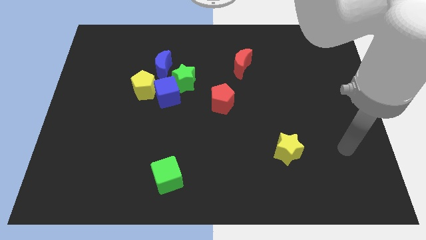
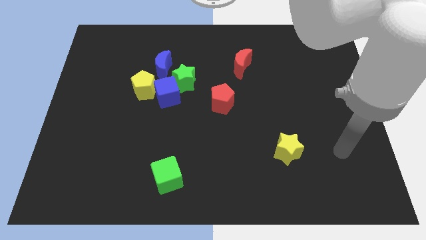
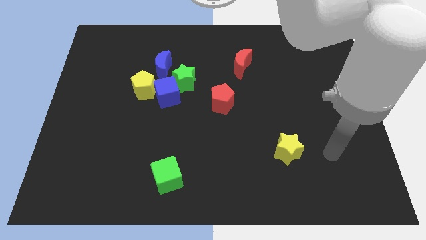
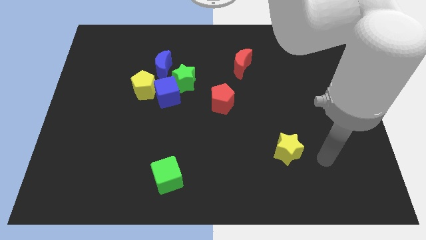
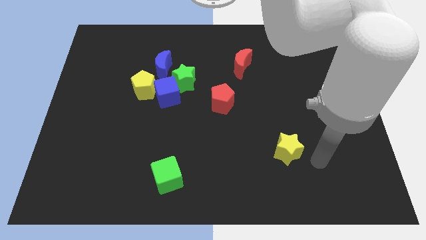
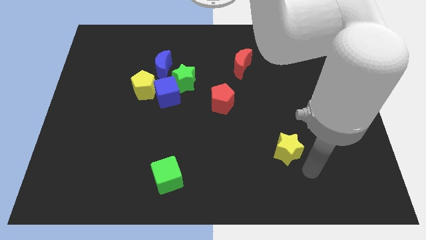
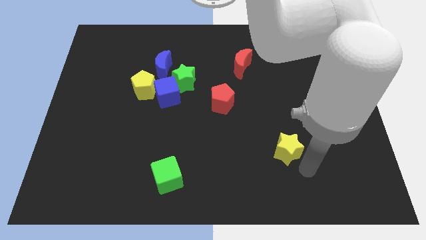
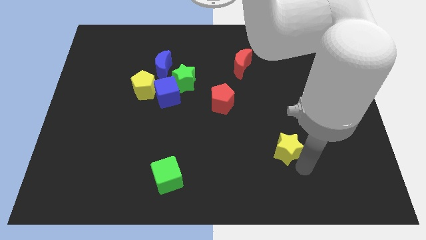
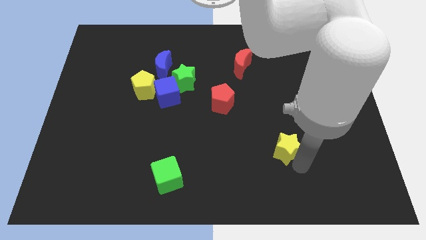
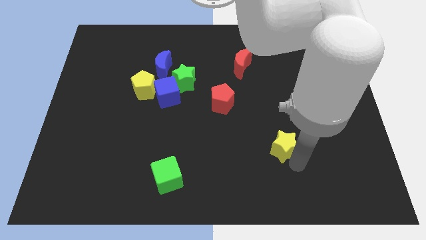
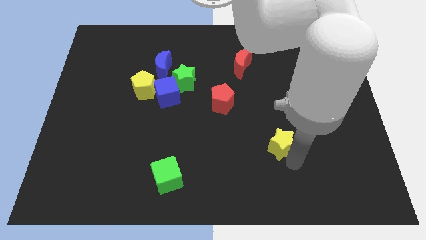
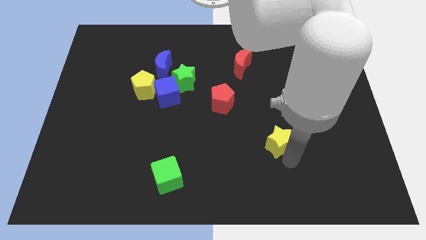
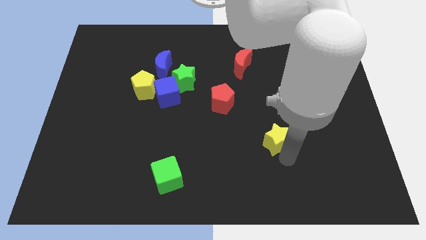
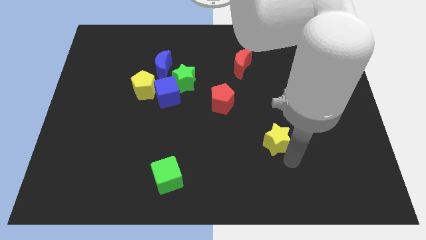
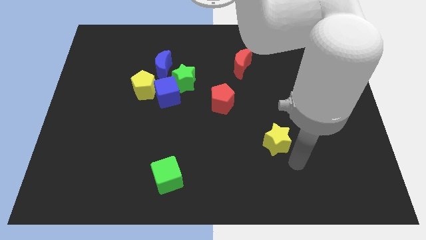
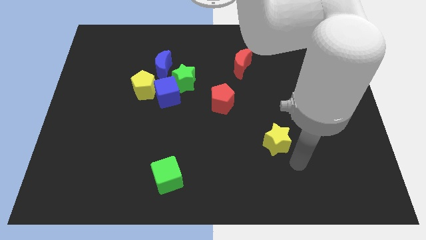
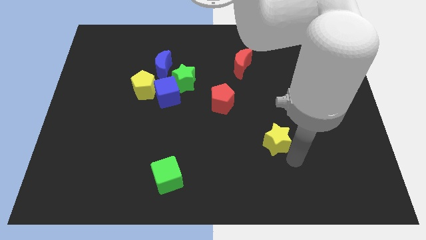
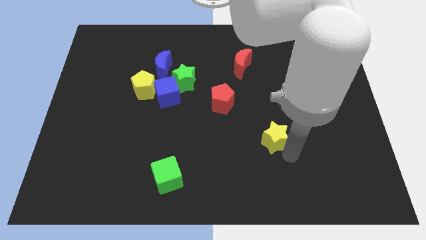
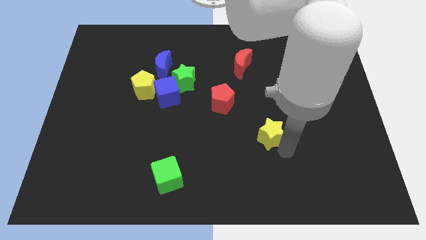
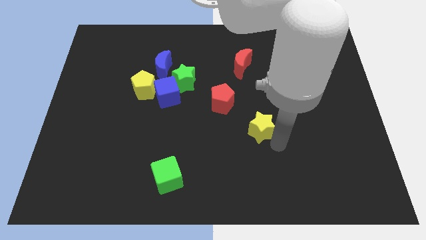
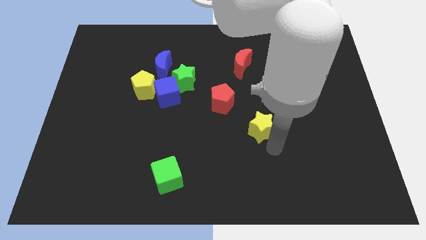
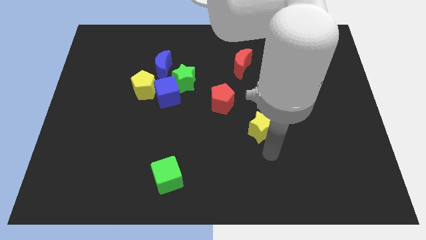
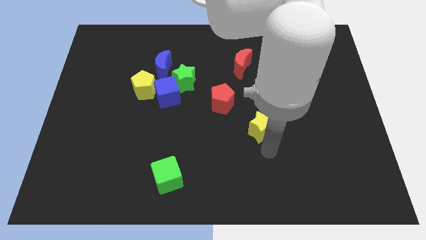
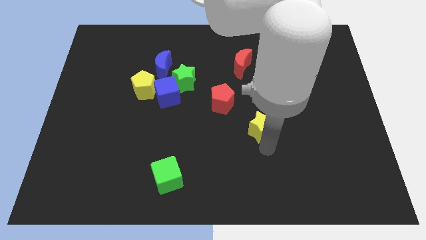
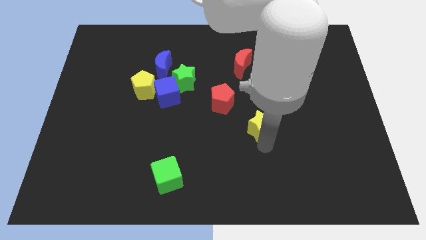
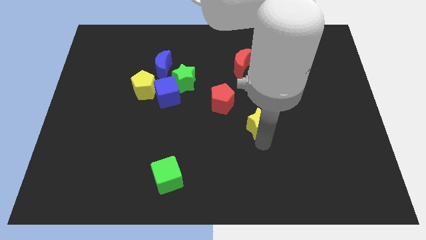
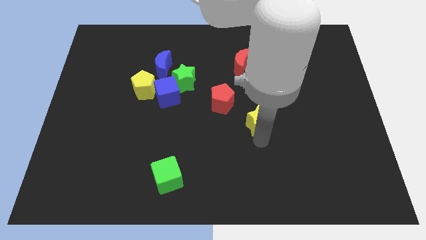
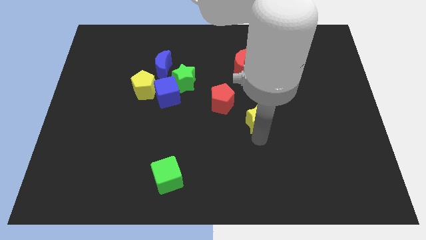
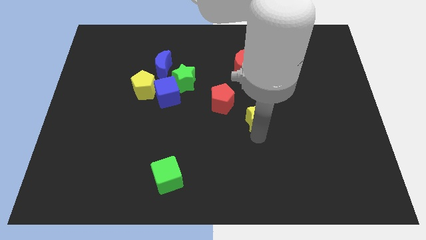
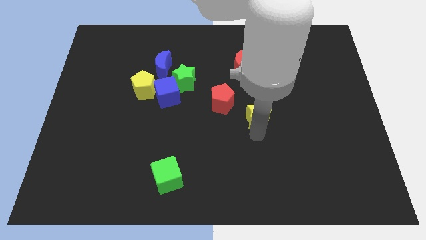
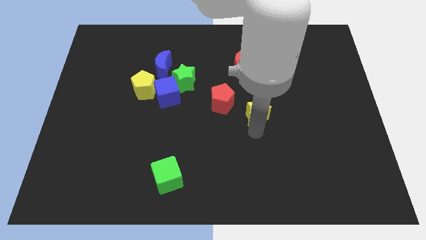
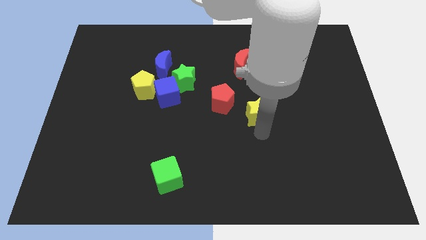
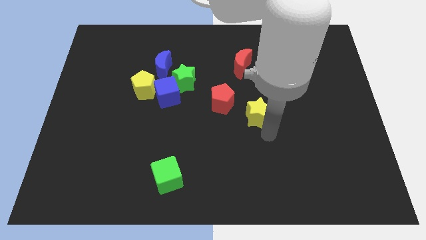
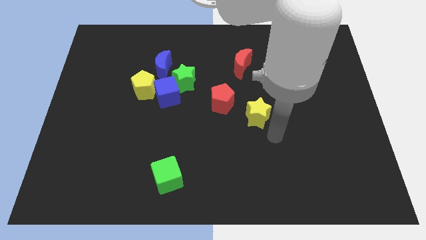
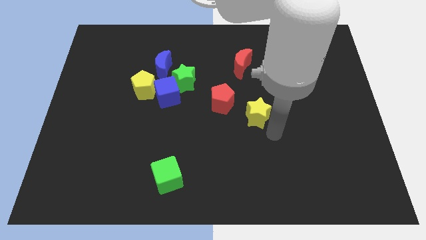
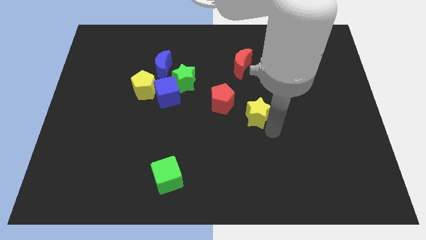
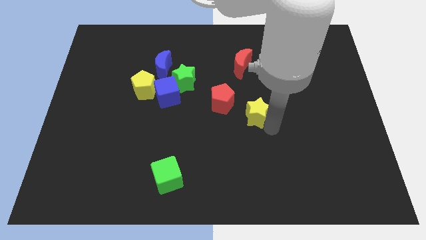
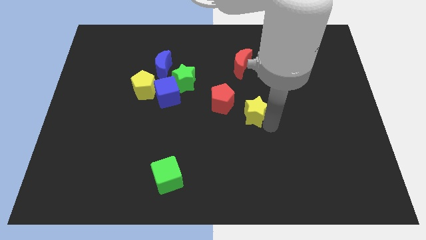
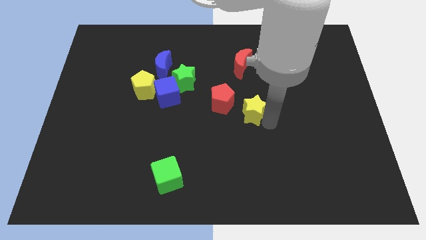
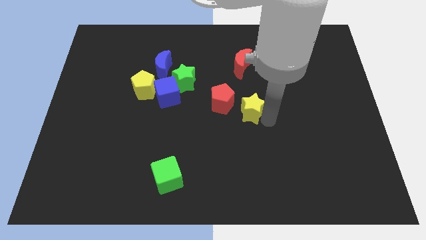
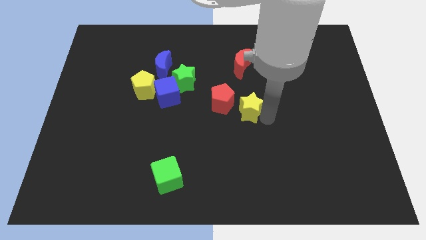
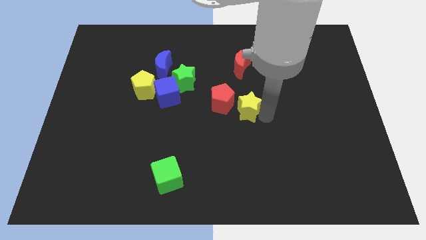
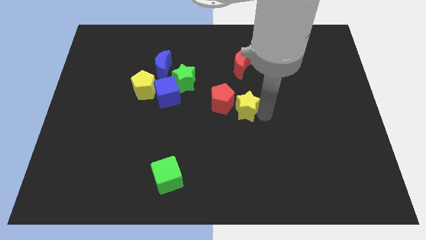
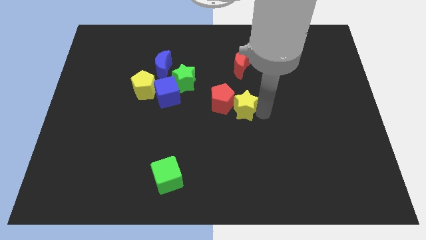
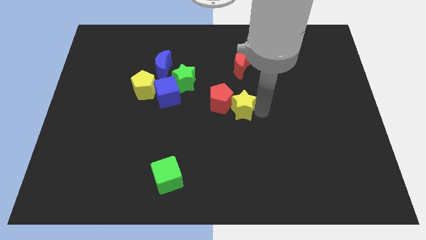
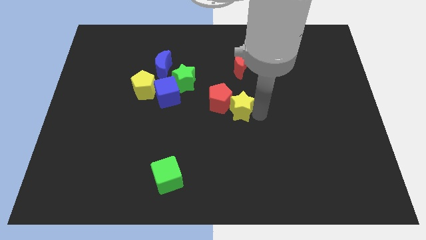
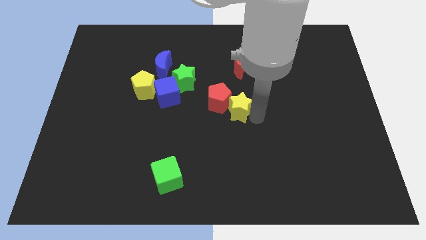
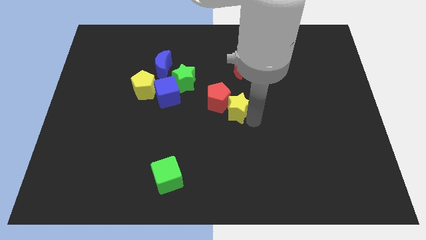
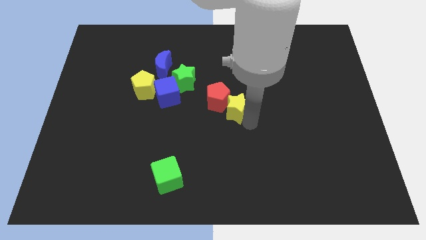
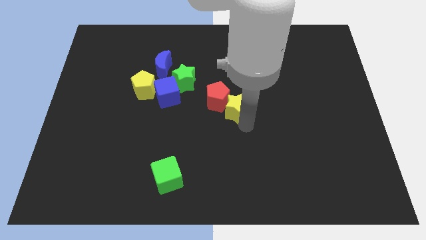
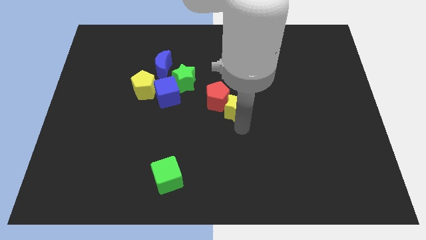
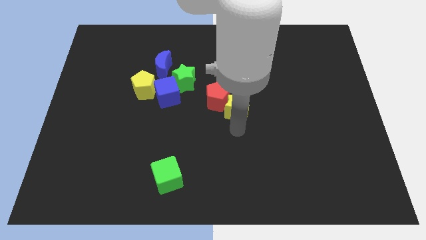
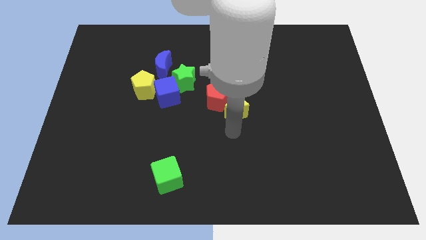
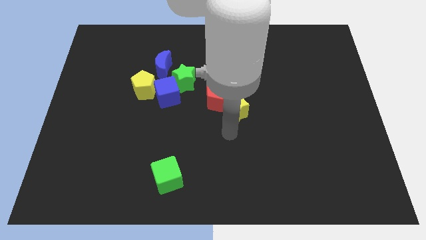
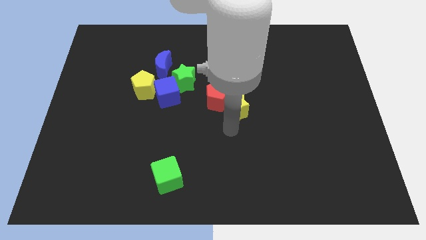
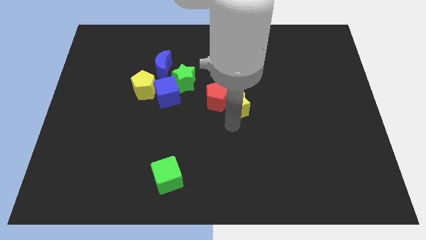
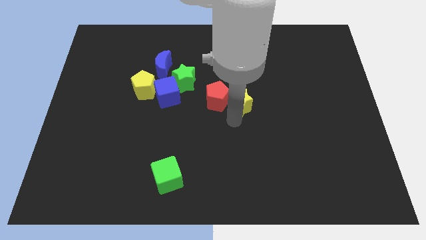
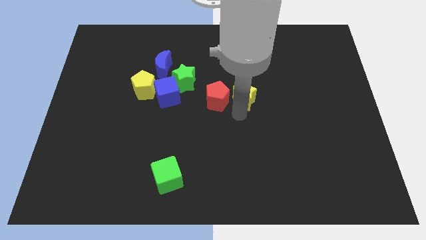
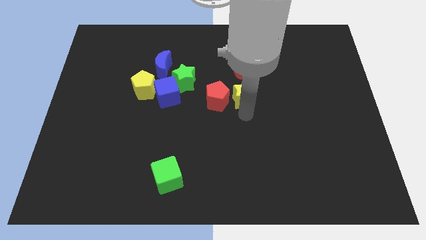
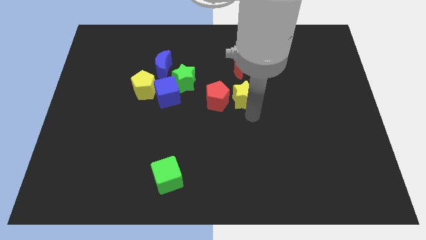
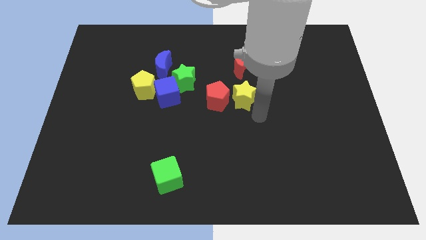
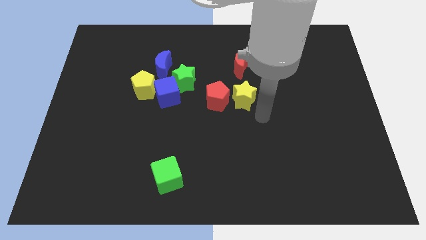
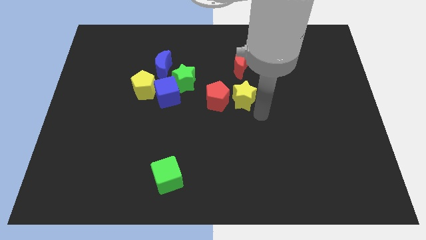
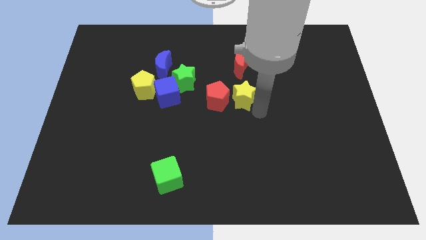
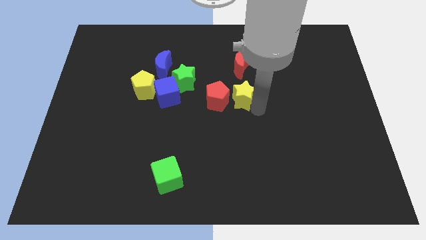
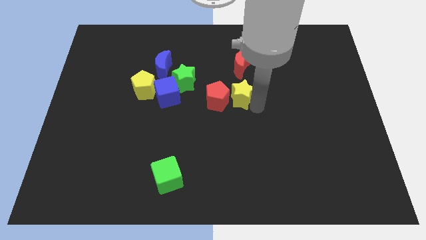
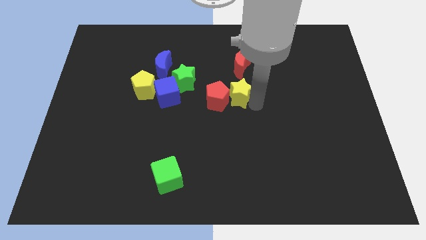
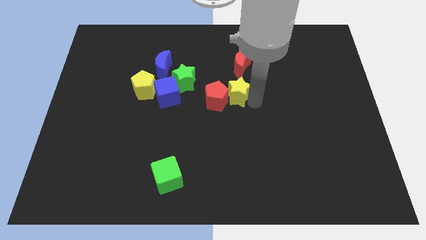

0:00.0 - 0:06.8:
put the yellow star just right of the green star
